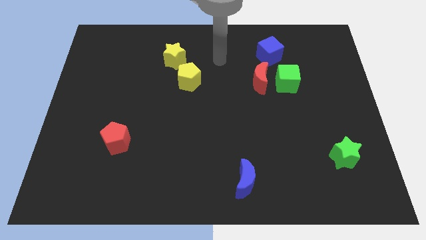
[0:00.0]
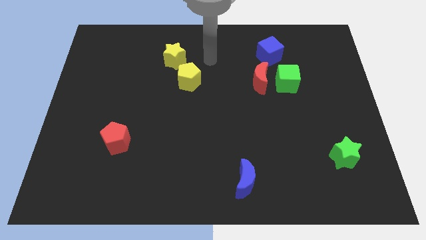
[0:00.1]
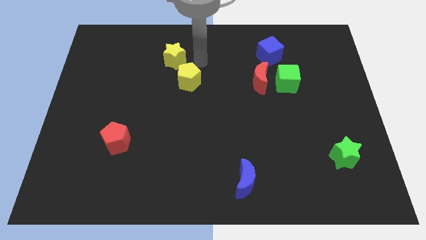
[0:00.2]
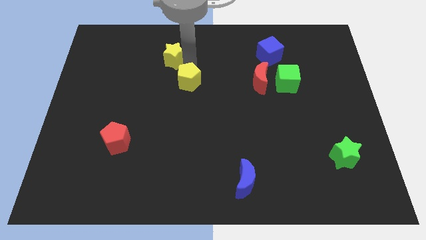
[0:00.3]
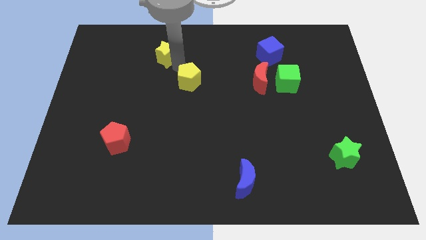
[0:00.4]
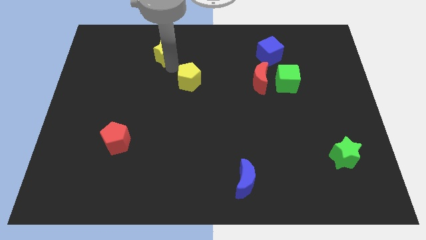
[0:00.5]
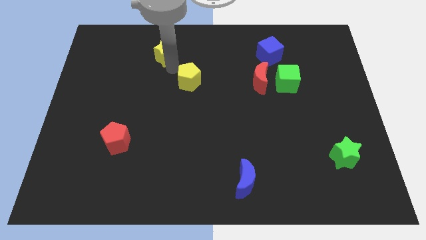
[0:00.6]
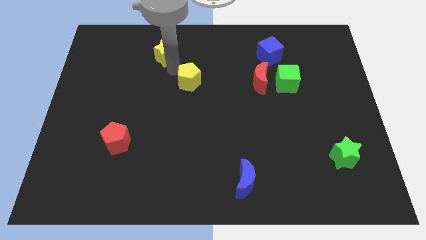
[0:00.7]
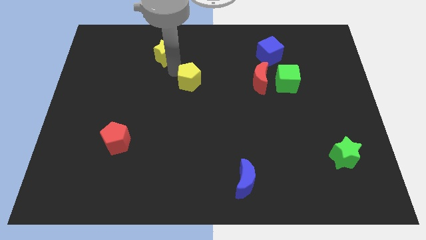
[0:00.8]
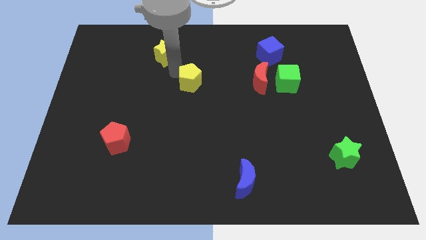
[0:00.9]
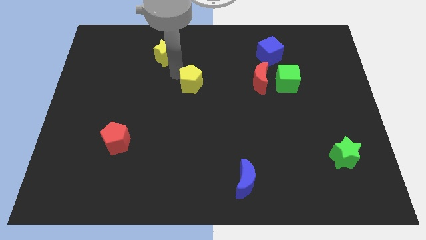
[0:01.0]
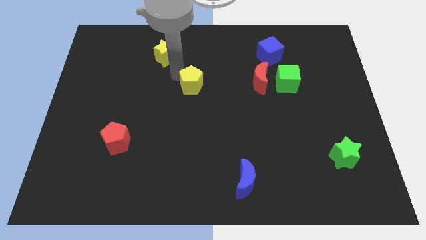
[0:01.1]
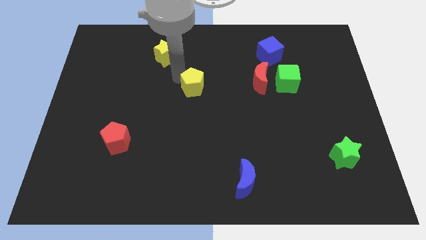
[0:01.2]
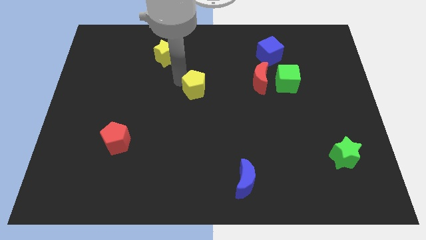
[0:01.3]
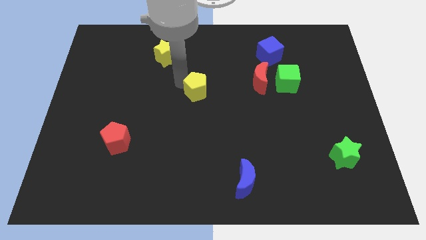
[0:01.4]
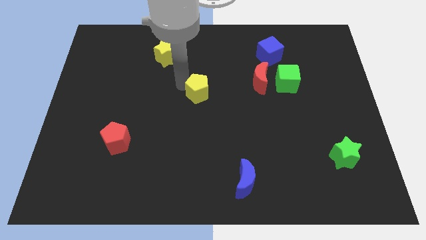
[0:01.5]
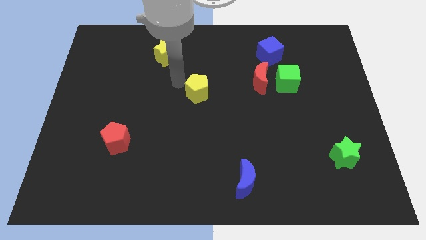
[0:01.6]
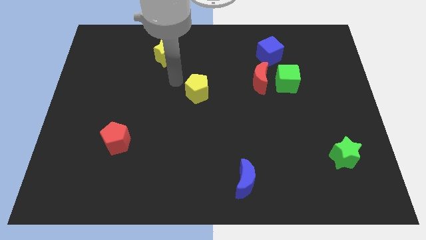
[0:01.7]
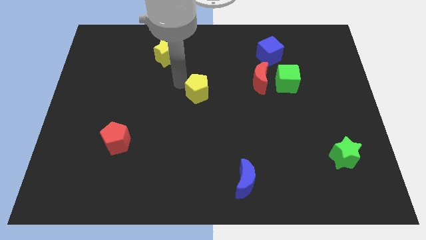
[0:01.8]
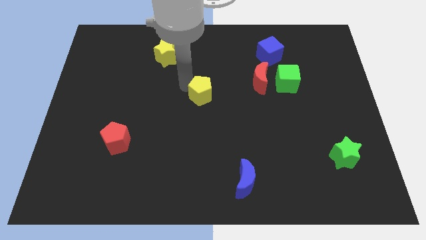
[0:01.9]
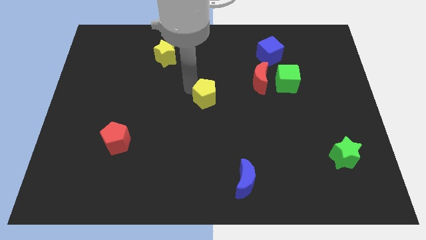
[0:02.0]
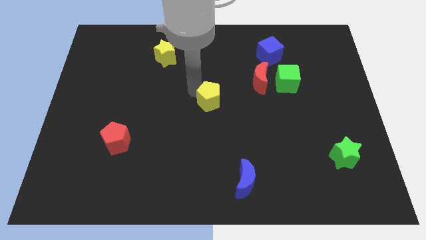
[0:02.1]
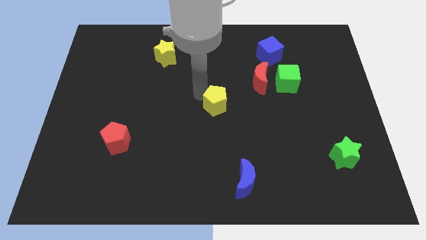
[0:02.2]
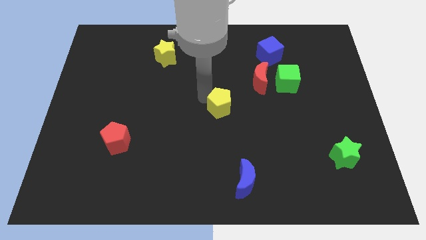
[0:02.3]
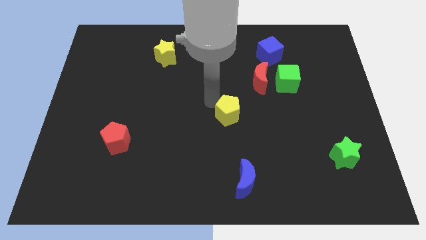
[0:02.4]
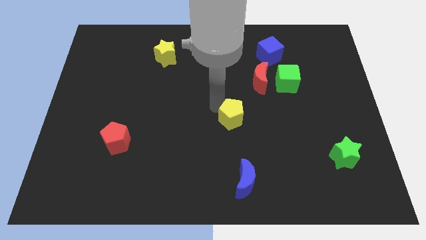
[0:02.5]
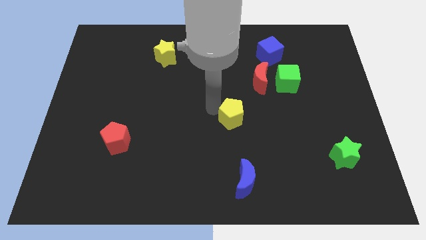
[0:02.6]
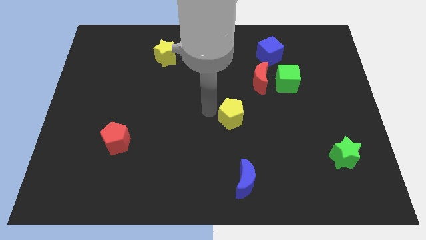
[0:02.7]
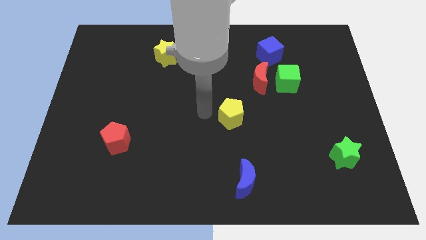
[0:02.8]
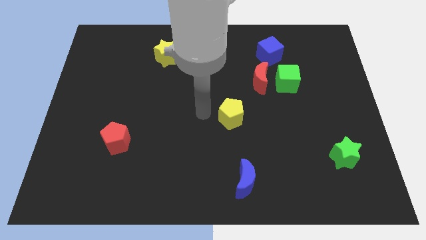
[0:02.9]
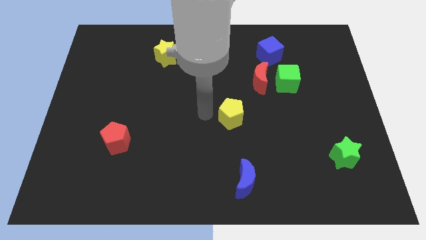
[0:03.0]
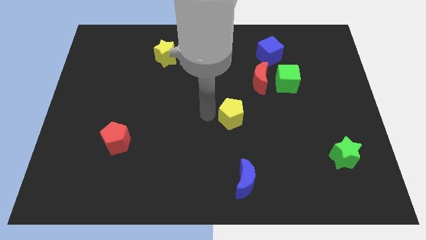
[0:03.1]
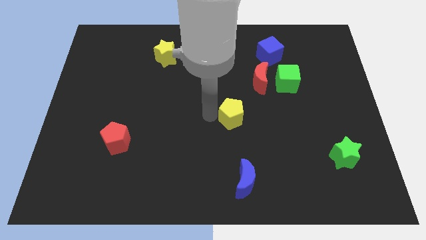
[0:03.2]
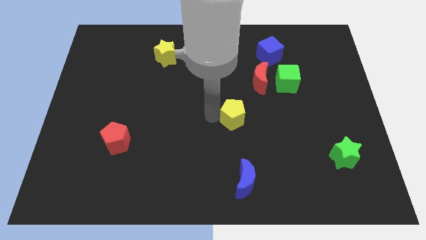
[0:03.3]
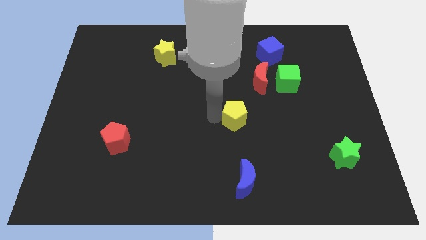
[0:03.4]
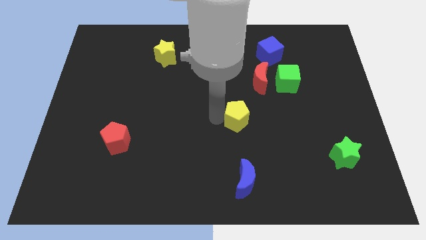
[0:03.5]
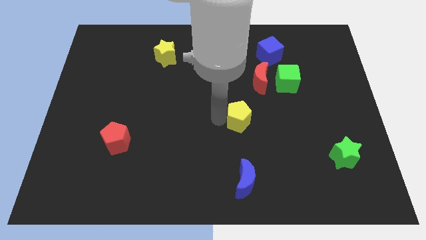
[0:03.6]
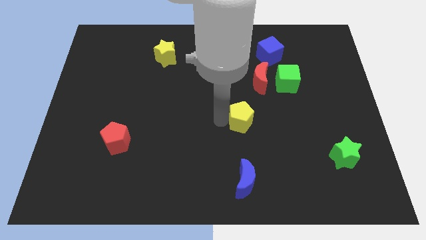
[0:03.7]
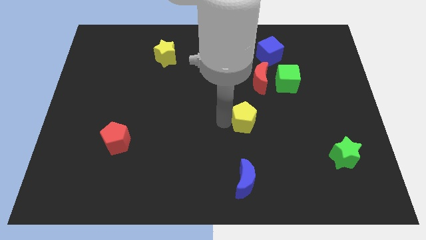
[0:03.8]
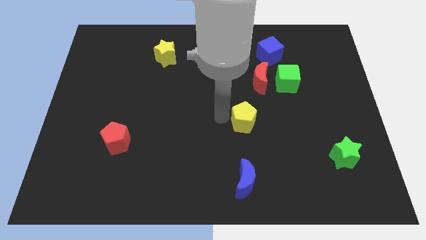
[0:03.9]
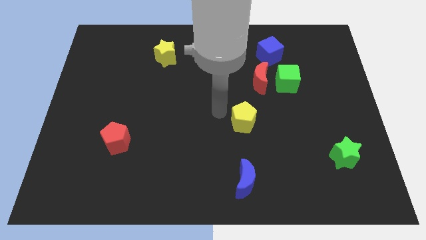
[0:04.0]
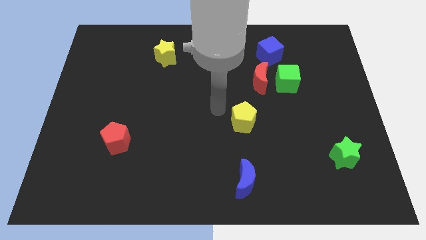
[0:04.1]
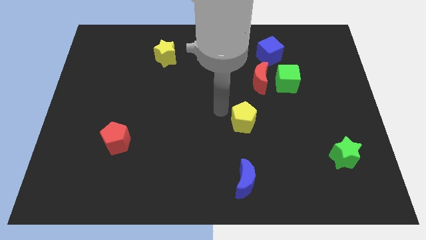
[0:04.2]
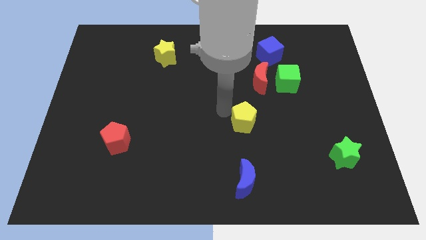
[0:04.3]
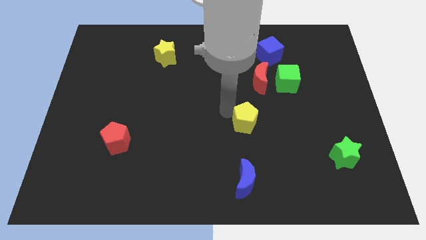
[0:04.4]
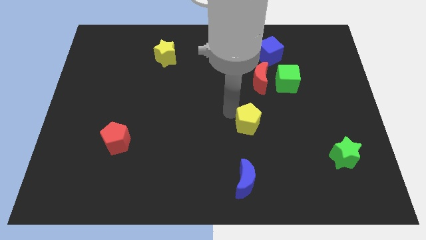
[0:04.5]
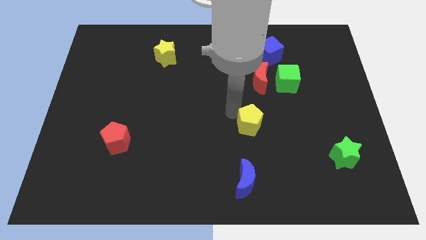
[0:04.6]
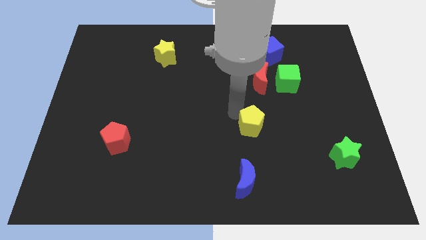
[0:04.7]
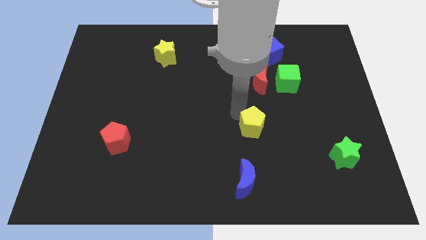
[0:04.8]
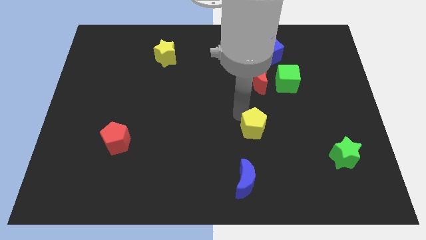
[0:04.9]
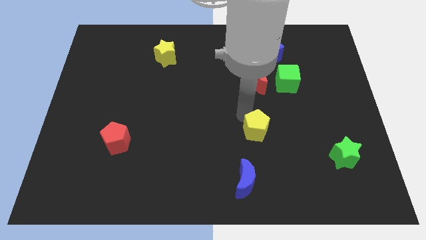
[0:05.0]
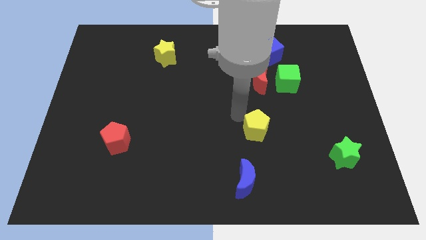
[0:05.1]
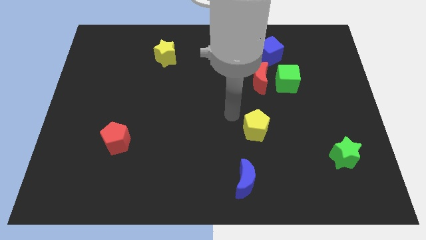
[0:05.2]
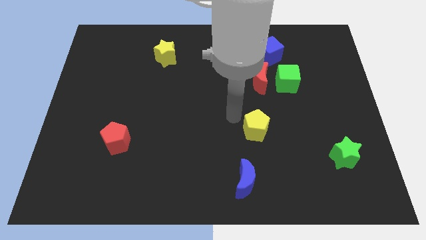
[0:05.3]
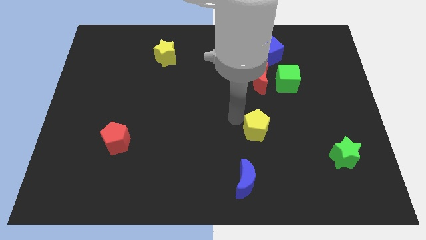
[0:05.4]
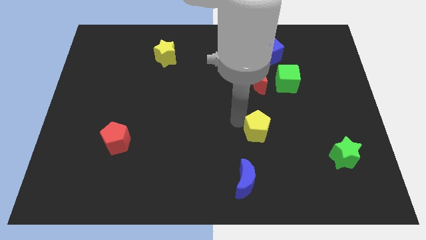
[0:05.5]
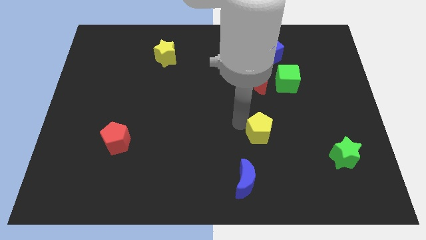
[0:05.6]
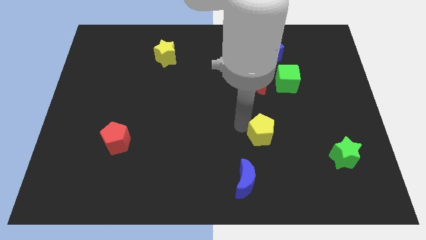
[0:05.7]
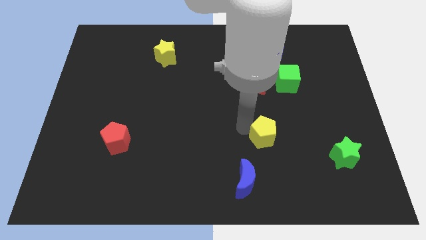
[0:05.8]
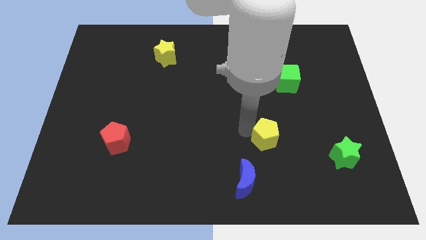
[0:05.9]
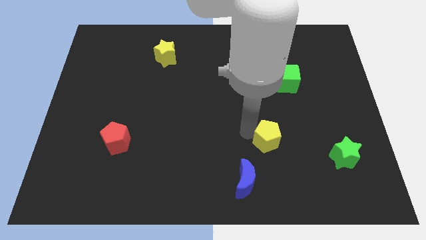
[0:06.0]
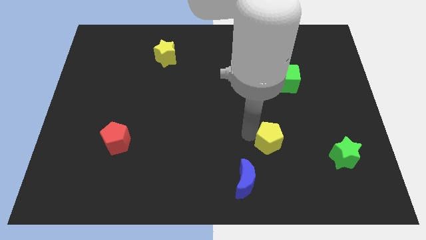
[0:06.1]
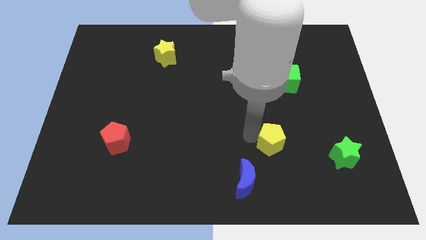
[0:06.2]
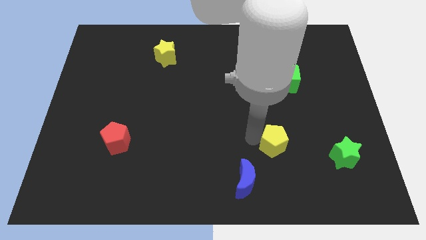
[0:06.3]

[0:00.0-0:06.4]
slide the yellow pentagon to the left side of the green star

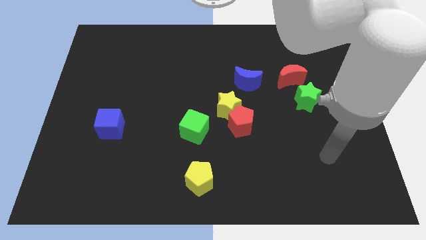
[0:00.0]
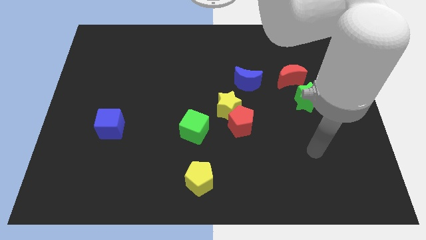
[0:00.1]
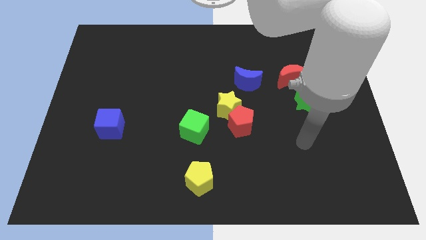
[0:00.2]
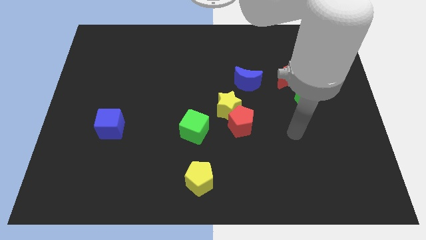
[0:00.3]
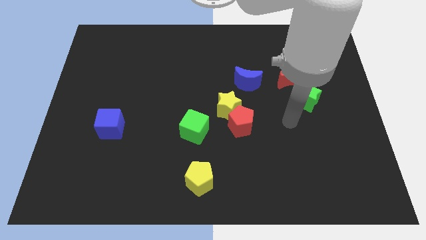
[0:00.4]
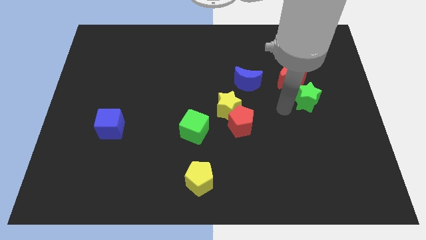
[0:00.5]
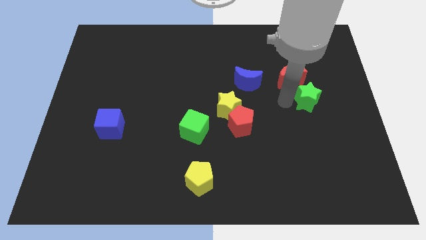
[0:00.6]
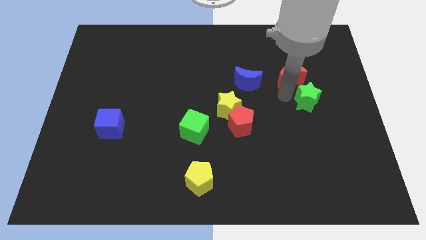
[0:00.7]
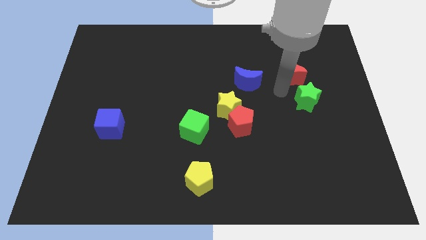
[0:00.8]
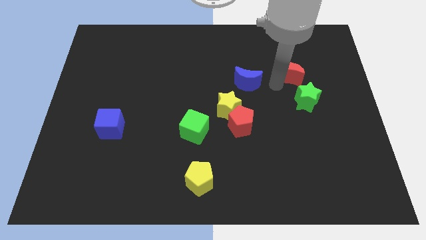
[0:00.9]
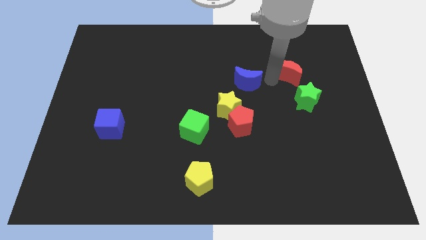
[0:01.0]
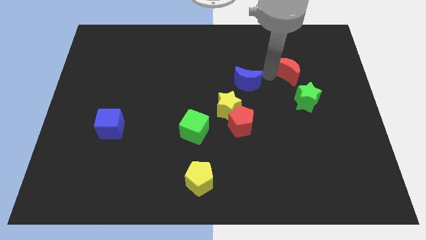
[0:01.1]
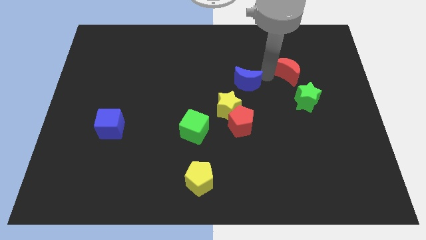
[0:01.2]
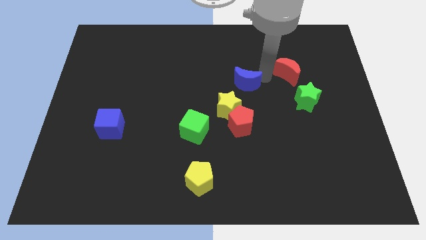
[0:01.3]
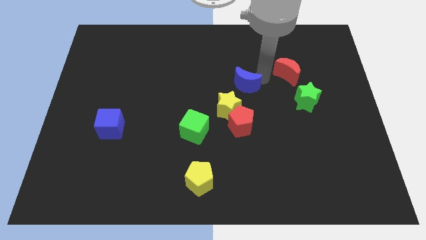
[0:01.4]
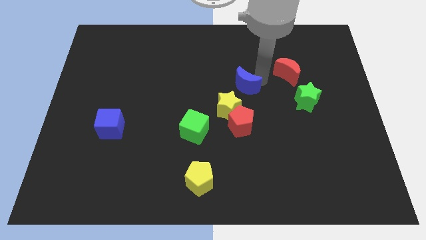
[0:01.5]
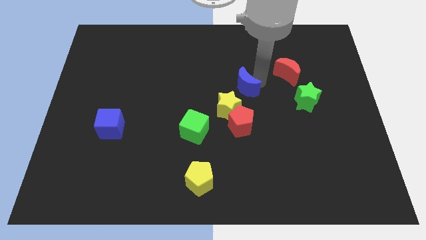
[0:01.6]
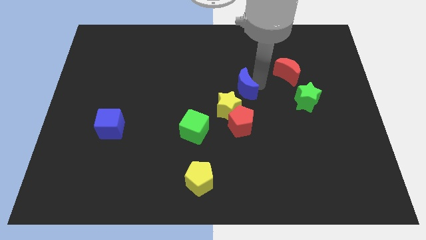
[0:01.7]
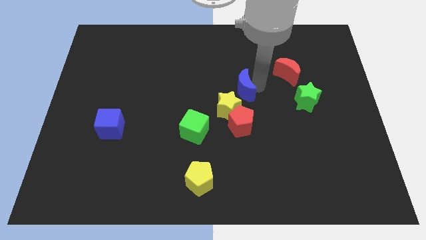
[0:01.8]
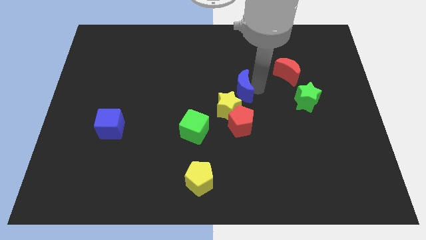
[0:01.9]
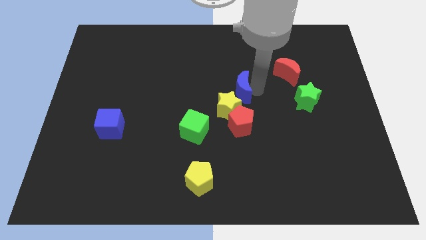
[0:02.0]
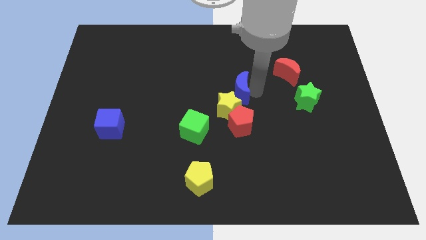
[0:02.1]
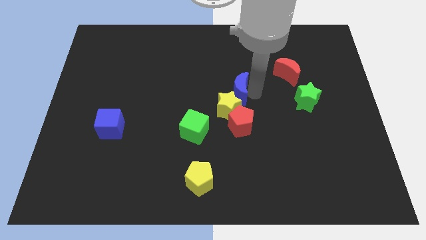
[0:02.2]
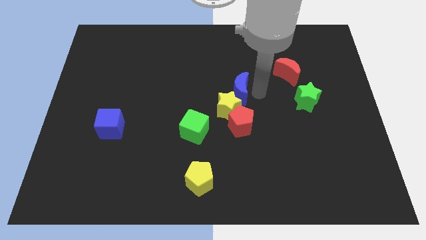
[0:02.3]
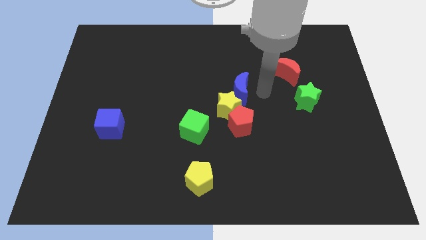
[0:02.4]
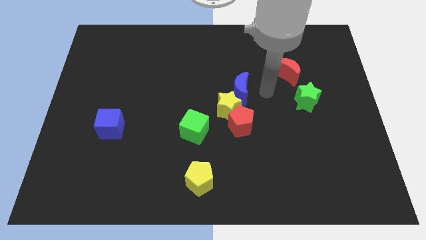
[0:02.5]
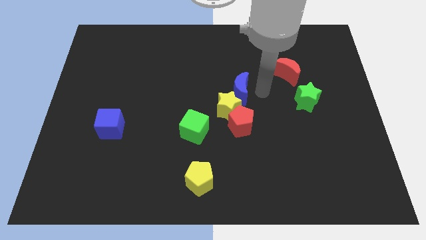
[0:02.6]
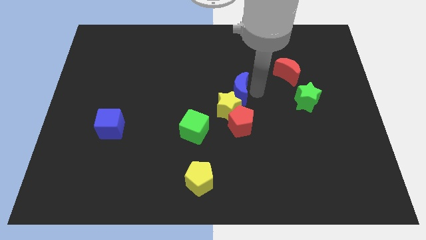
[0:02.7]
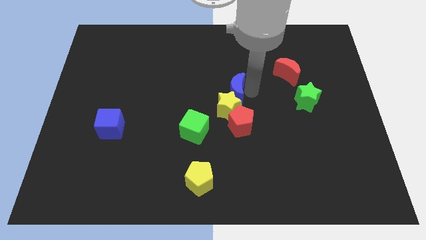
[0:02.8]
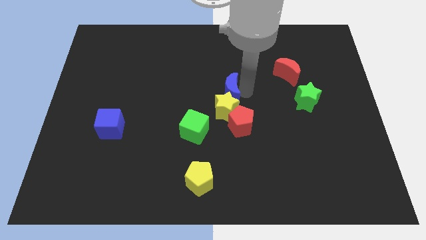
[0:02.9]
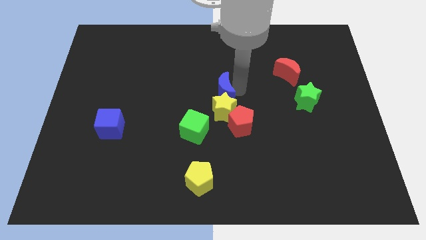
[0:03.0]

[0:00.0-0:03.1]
put the blue moon to the top left of the red pentagon
